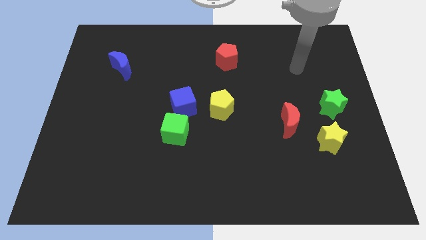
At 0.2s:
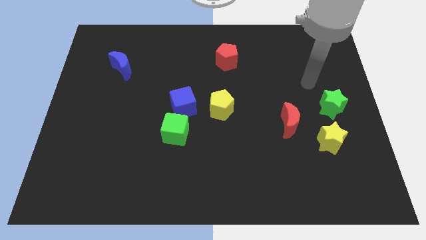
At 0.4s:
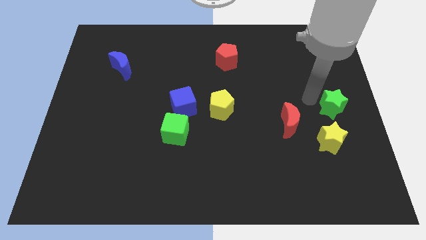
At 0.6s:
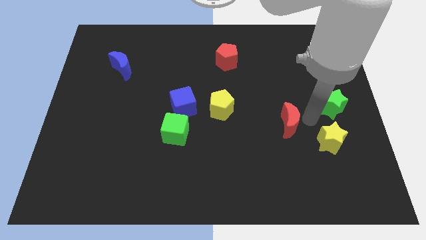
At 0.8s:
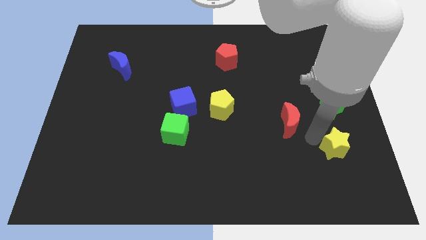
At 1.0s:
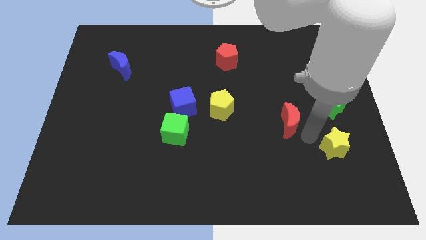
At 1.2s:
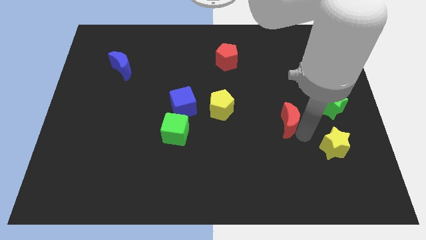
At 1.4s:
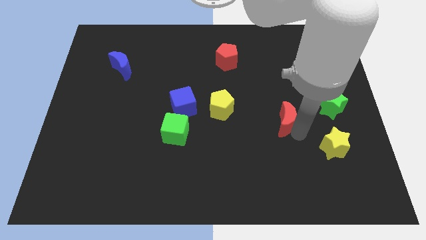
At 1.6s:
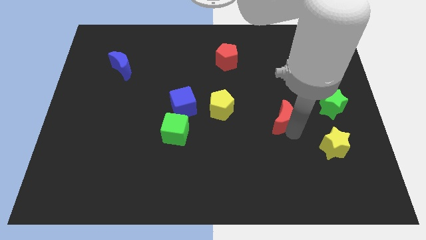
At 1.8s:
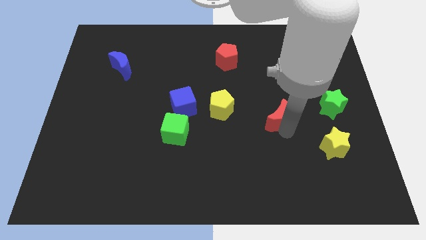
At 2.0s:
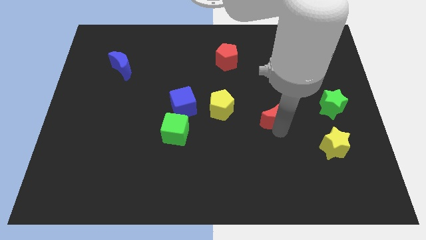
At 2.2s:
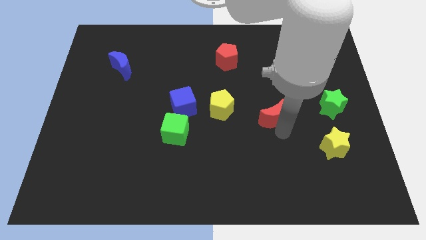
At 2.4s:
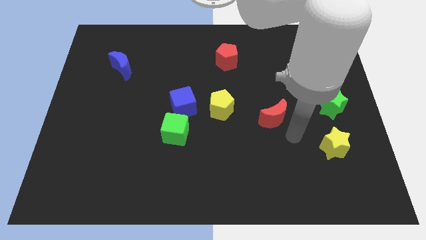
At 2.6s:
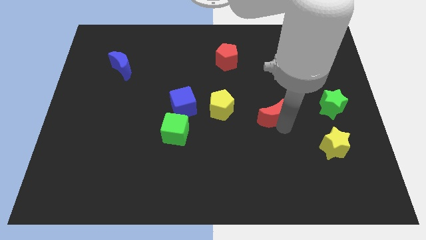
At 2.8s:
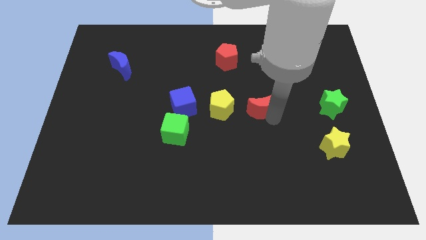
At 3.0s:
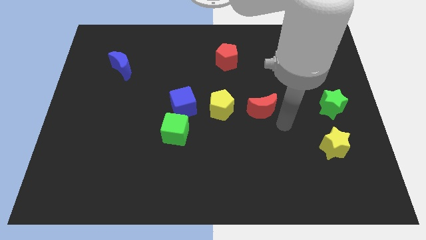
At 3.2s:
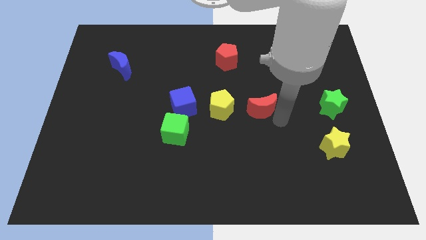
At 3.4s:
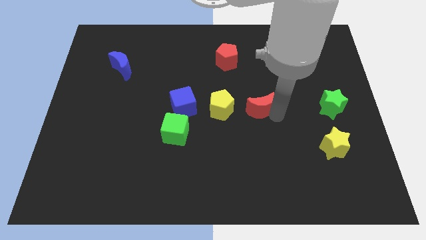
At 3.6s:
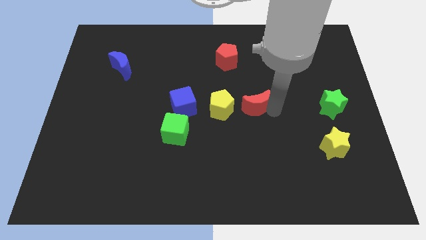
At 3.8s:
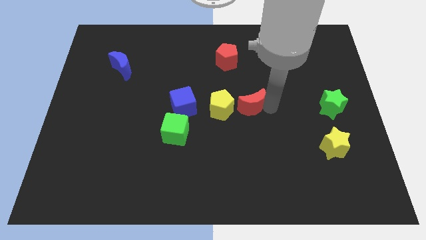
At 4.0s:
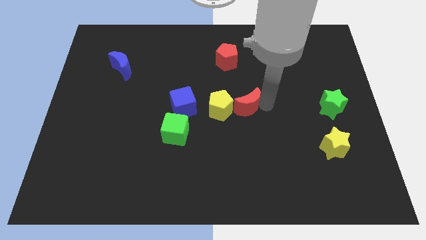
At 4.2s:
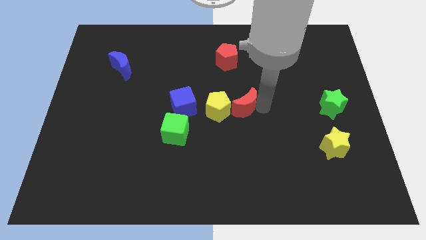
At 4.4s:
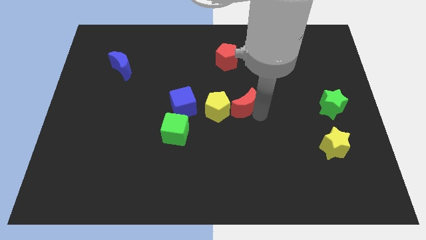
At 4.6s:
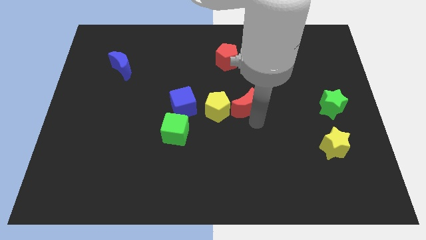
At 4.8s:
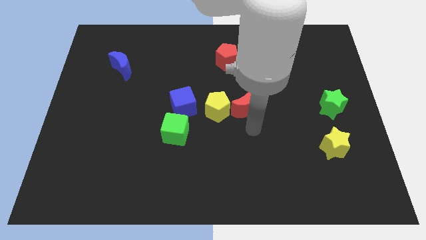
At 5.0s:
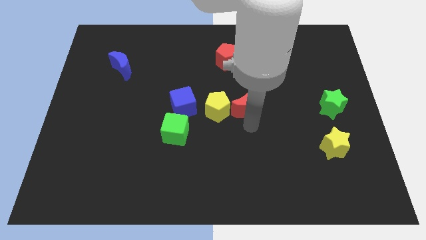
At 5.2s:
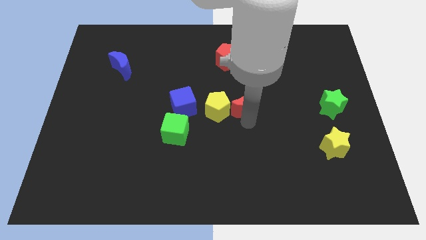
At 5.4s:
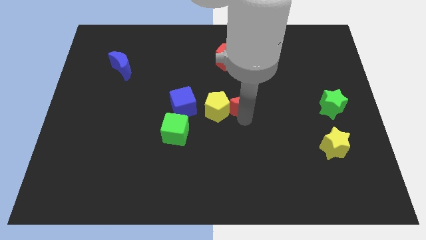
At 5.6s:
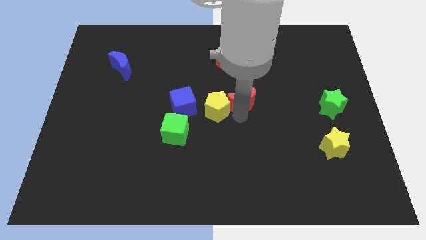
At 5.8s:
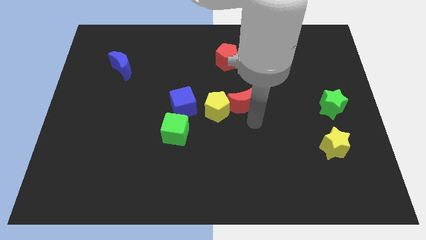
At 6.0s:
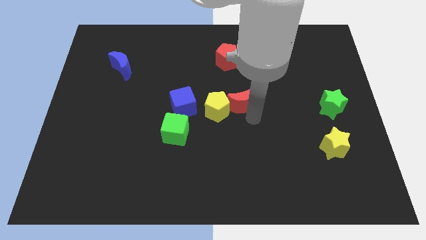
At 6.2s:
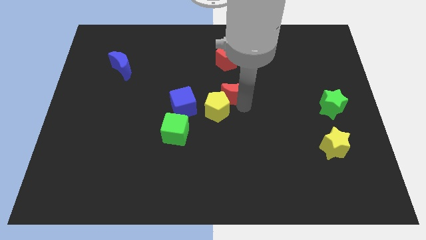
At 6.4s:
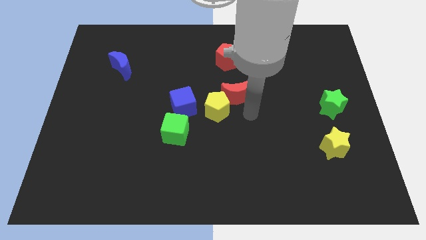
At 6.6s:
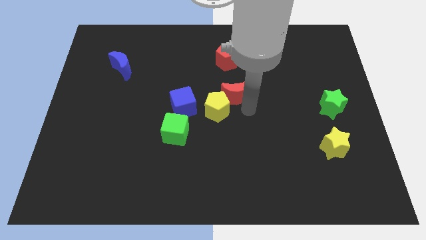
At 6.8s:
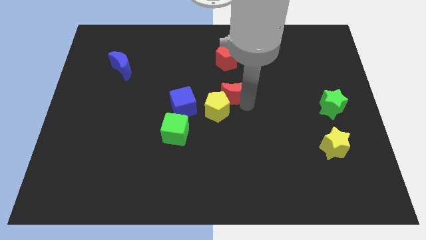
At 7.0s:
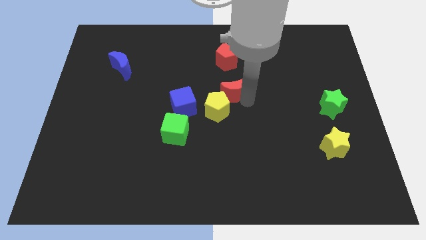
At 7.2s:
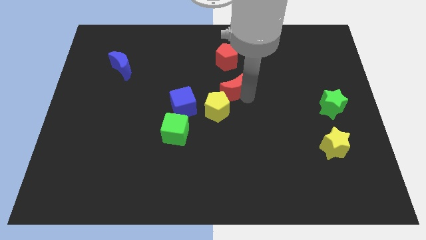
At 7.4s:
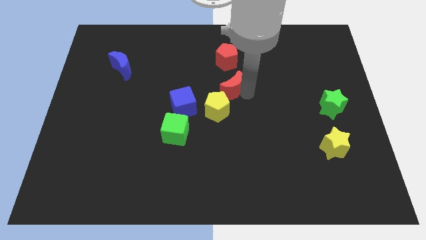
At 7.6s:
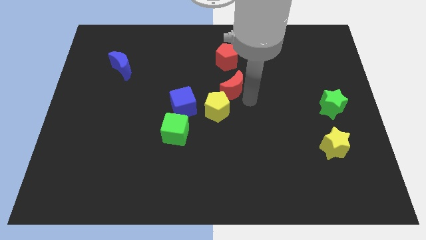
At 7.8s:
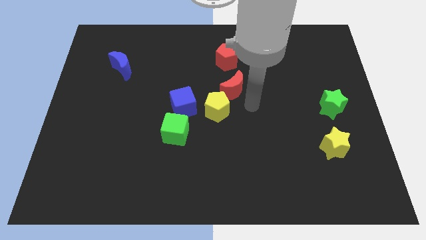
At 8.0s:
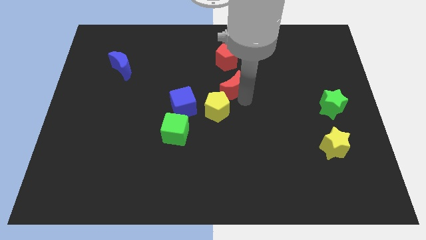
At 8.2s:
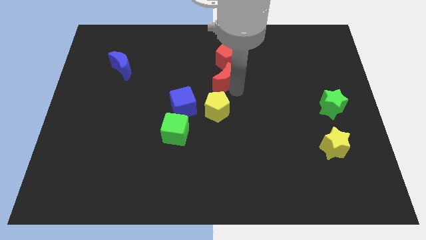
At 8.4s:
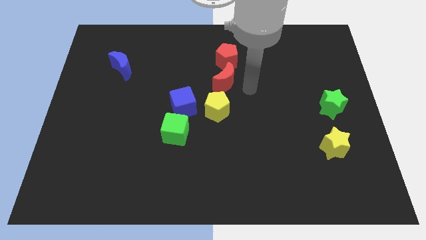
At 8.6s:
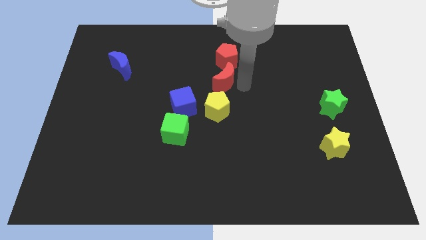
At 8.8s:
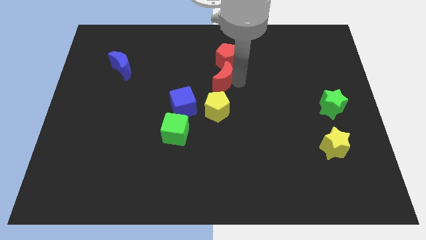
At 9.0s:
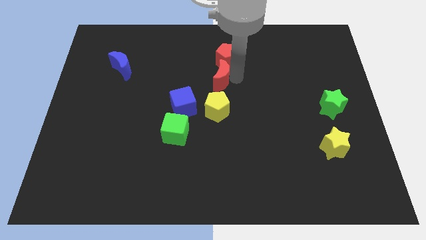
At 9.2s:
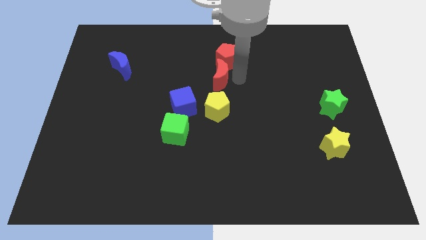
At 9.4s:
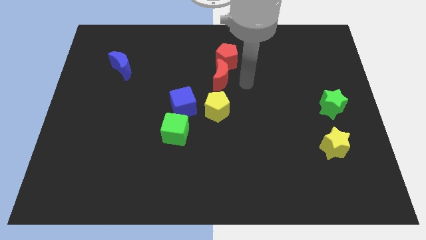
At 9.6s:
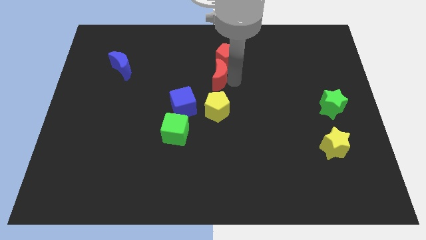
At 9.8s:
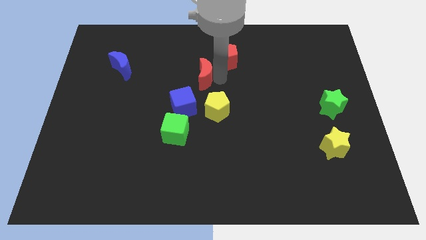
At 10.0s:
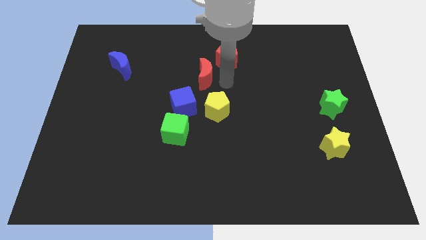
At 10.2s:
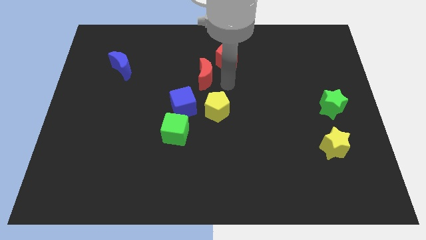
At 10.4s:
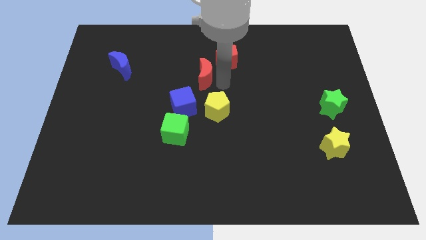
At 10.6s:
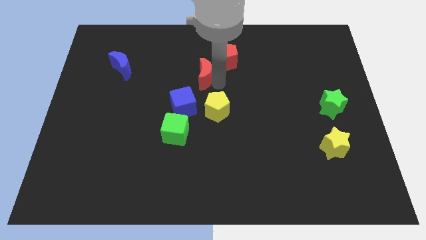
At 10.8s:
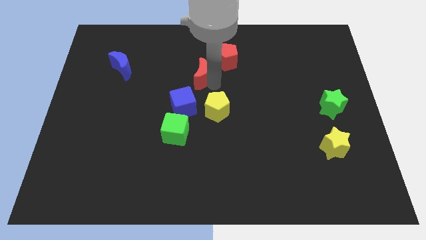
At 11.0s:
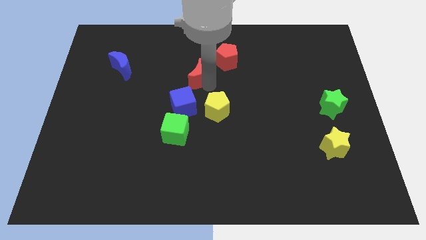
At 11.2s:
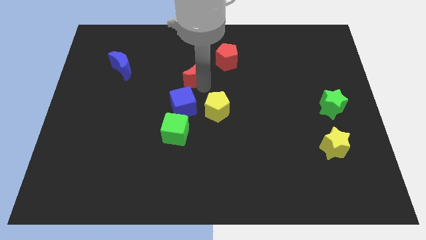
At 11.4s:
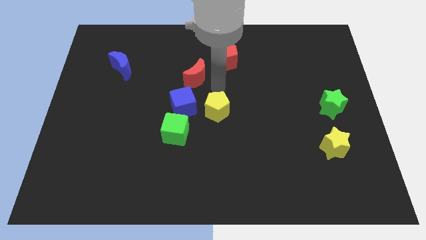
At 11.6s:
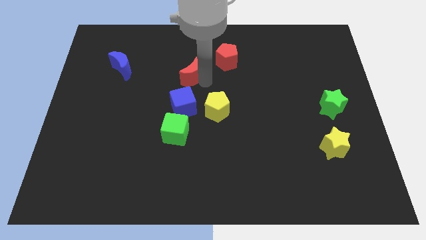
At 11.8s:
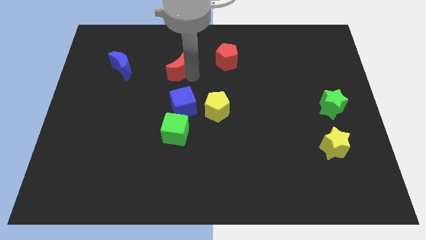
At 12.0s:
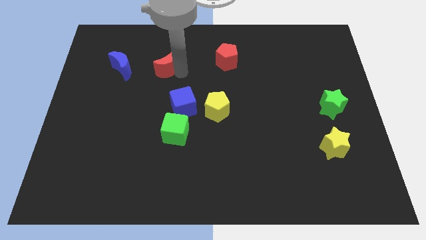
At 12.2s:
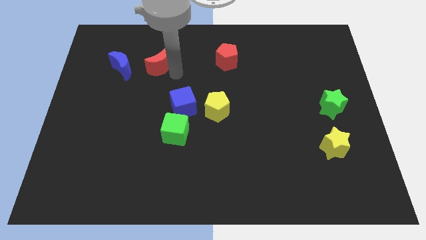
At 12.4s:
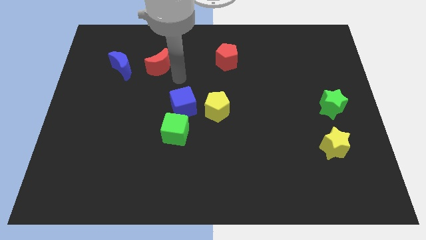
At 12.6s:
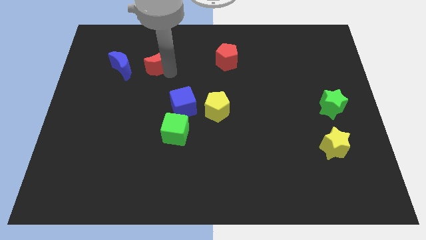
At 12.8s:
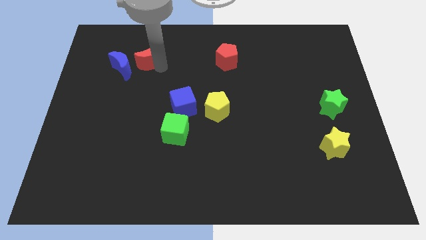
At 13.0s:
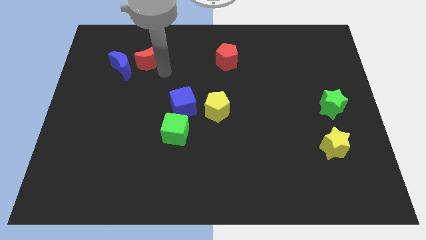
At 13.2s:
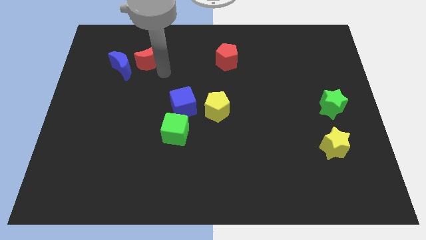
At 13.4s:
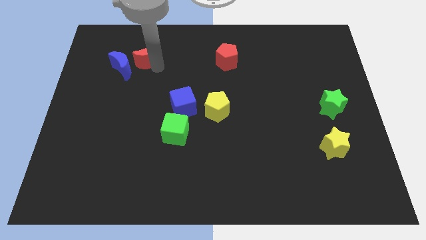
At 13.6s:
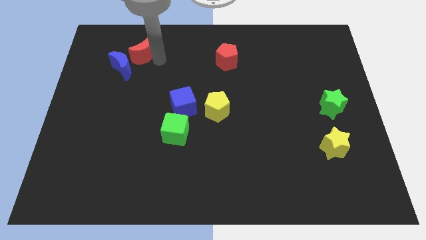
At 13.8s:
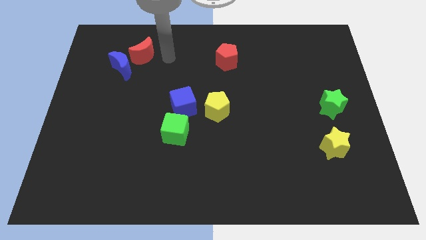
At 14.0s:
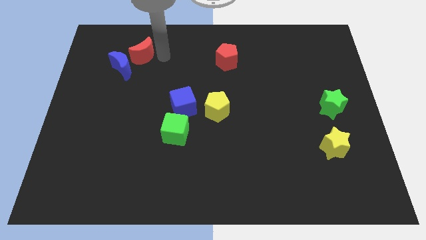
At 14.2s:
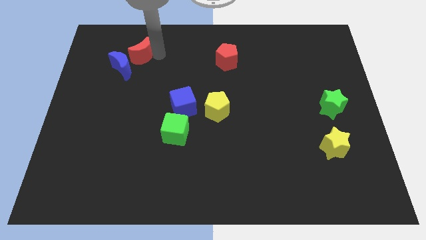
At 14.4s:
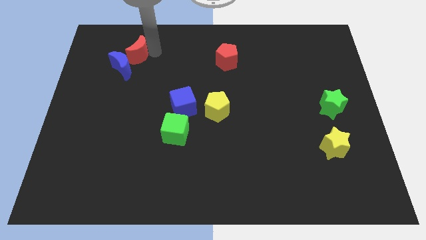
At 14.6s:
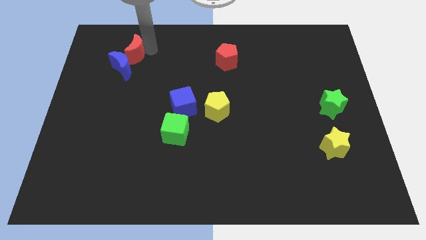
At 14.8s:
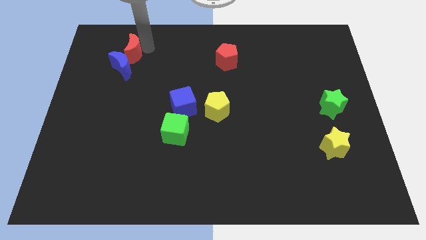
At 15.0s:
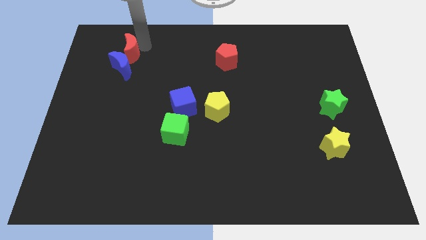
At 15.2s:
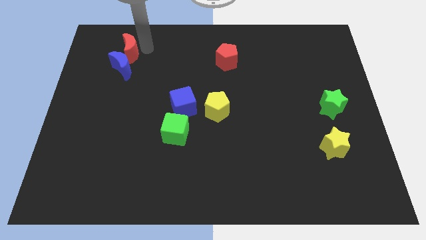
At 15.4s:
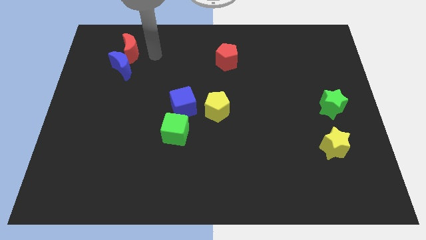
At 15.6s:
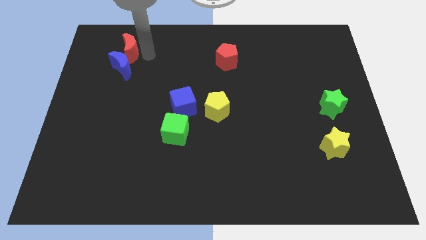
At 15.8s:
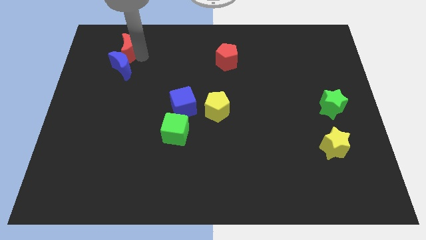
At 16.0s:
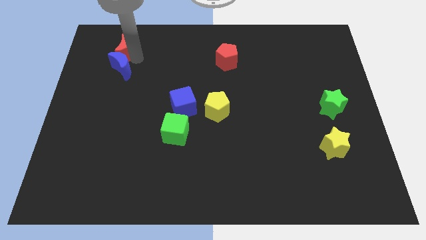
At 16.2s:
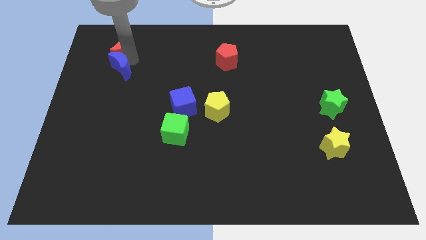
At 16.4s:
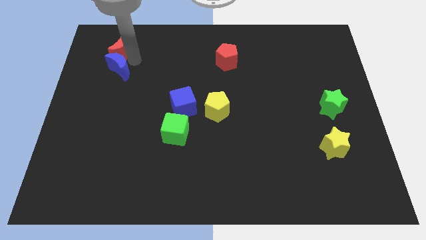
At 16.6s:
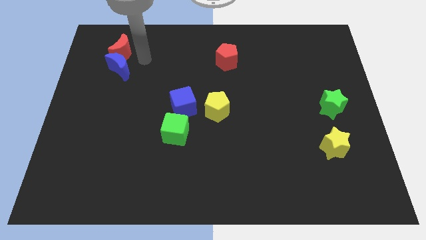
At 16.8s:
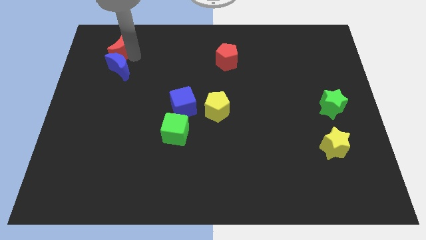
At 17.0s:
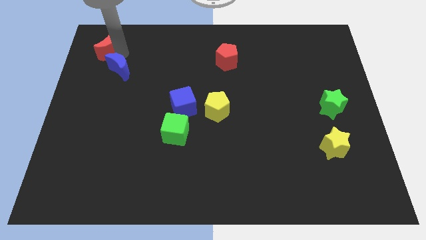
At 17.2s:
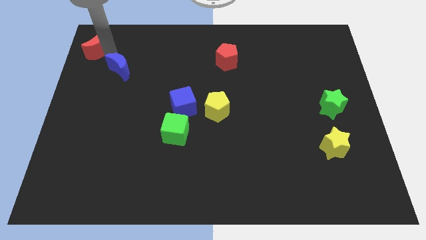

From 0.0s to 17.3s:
slide the red moon to the top left corner
